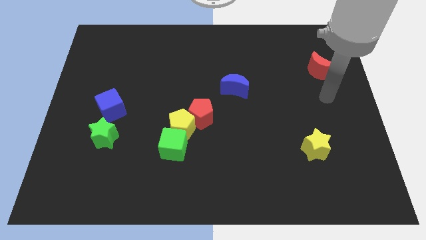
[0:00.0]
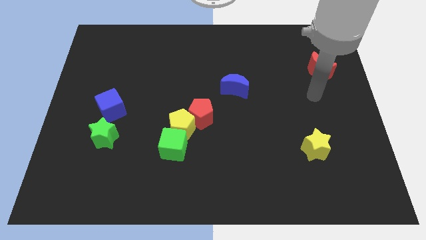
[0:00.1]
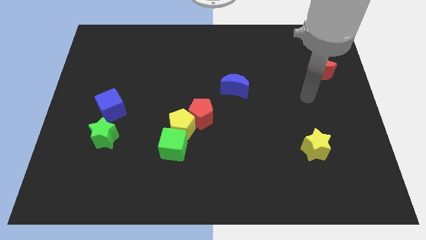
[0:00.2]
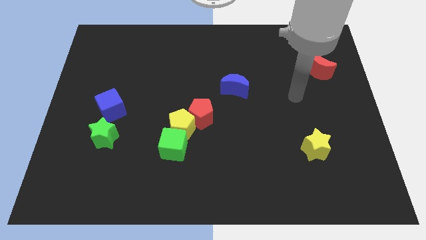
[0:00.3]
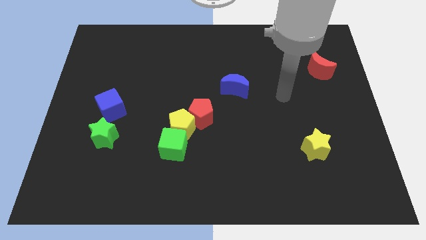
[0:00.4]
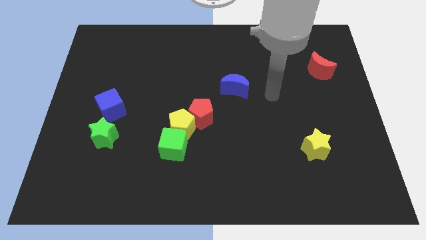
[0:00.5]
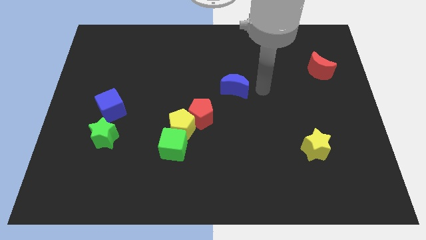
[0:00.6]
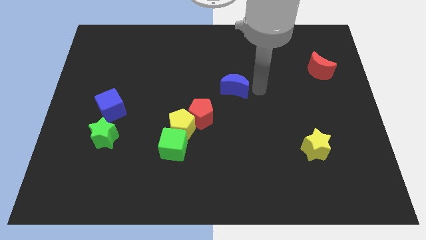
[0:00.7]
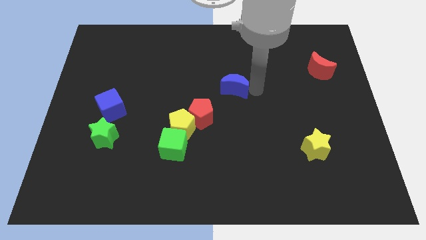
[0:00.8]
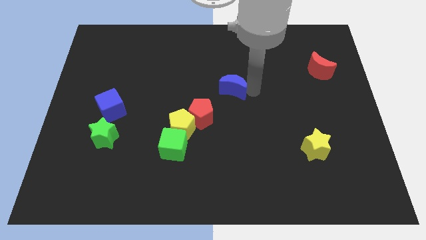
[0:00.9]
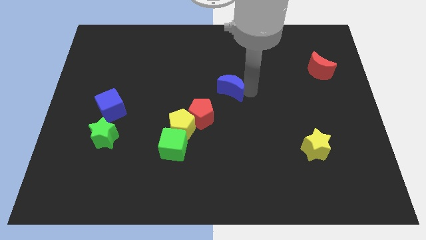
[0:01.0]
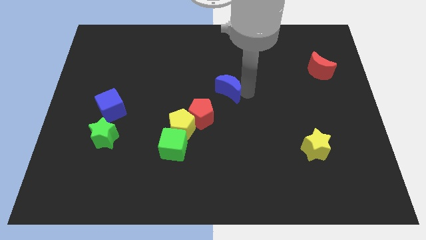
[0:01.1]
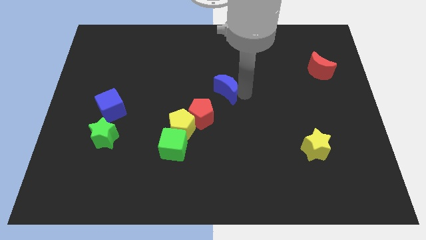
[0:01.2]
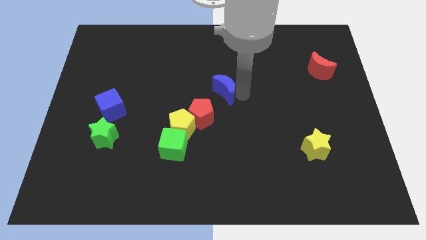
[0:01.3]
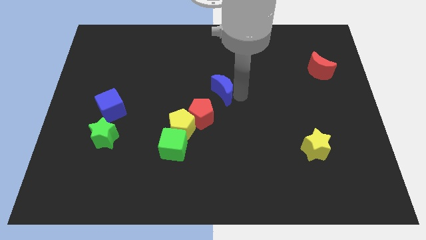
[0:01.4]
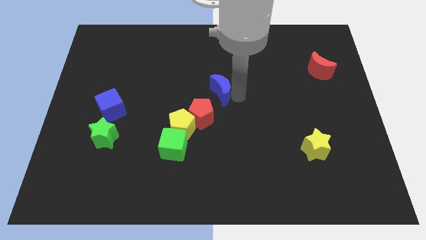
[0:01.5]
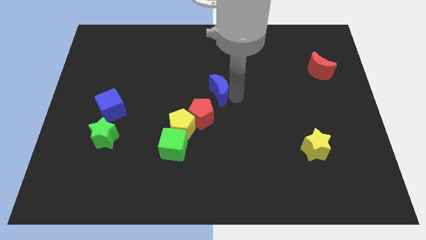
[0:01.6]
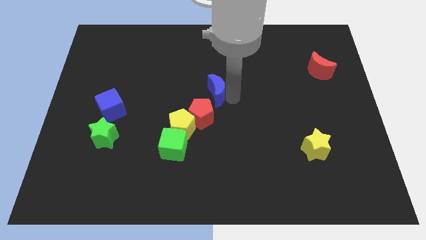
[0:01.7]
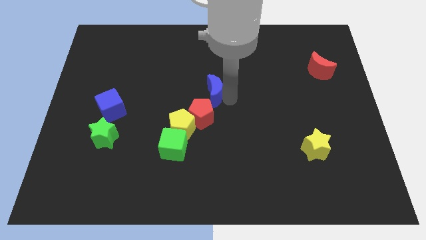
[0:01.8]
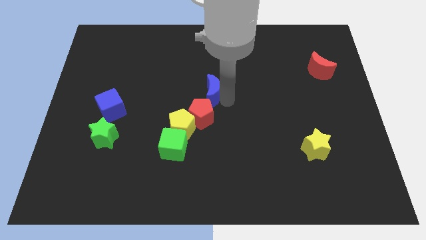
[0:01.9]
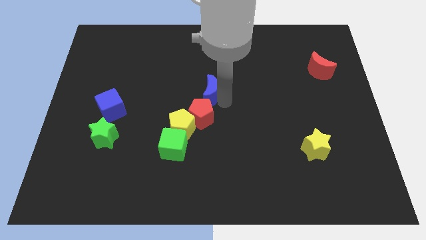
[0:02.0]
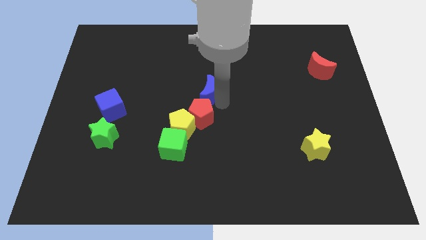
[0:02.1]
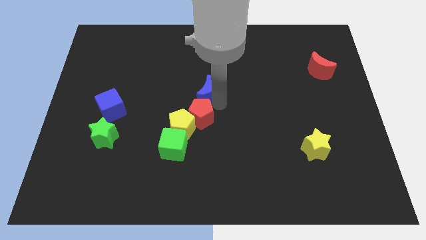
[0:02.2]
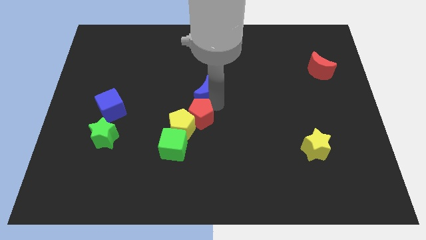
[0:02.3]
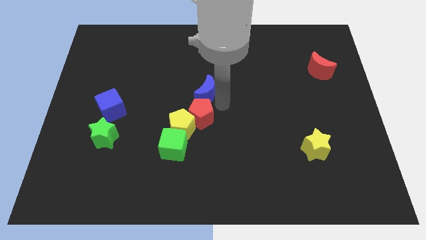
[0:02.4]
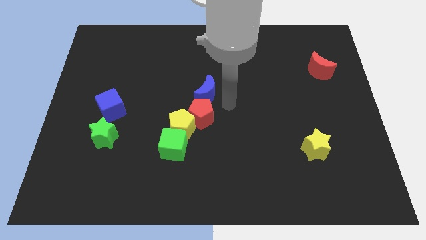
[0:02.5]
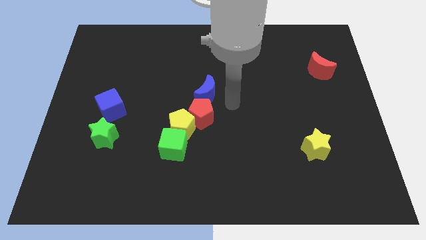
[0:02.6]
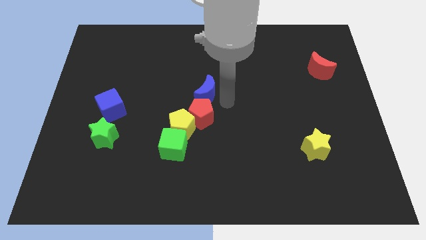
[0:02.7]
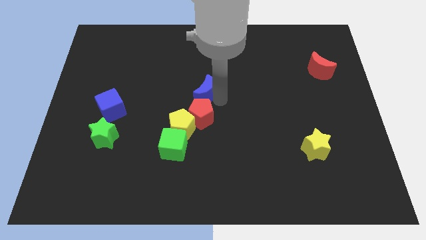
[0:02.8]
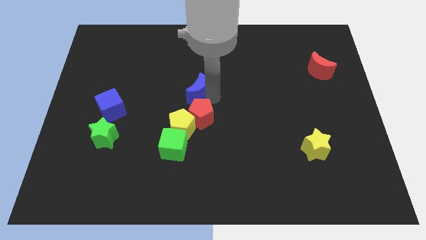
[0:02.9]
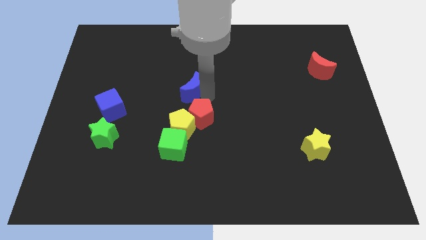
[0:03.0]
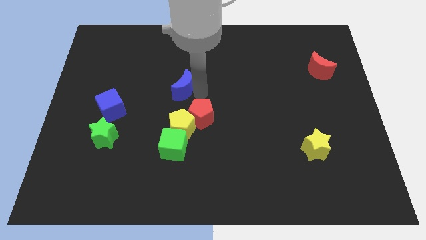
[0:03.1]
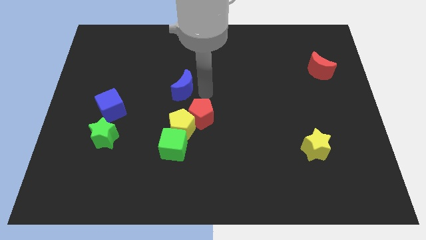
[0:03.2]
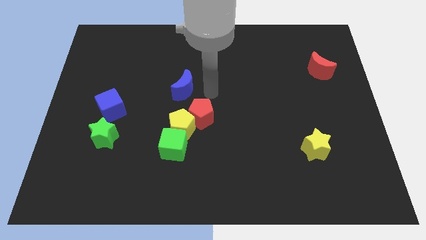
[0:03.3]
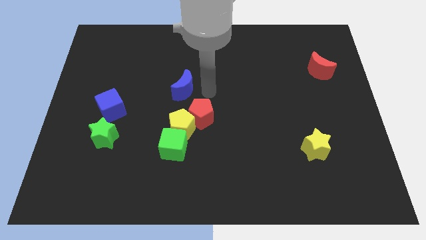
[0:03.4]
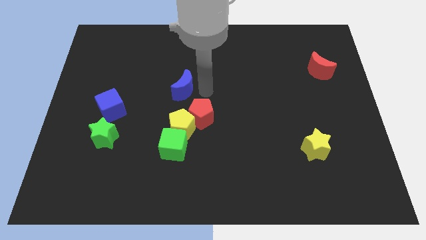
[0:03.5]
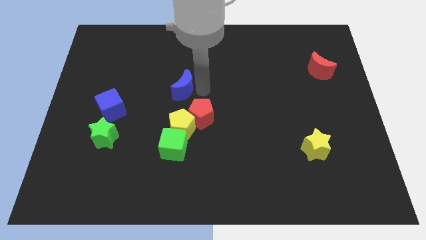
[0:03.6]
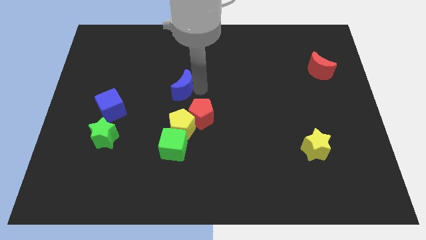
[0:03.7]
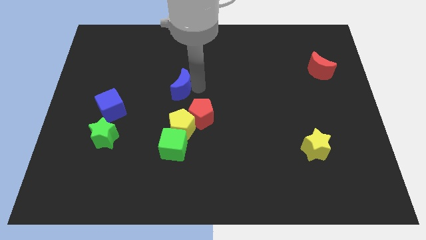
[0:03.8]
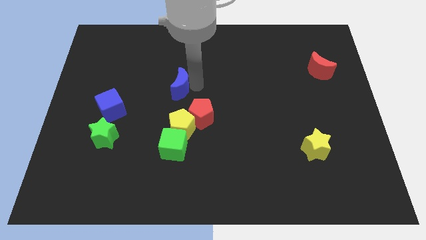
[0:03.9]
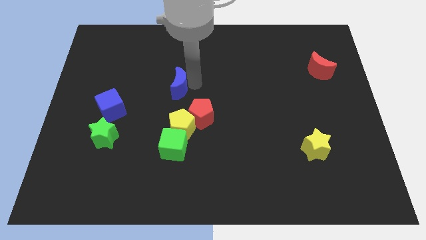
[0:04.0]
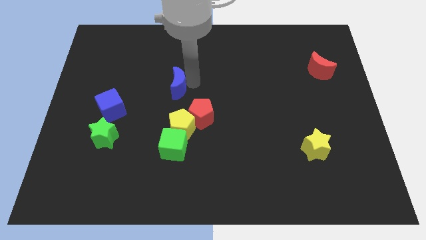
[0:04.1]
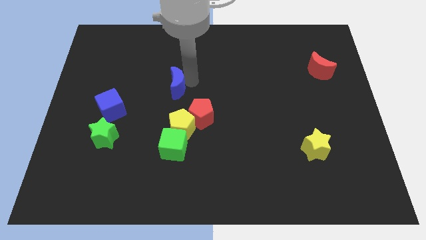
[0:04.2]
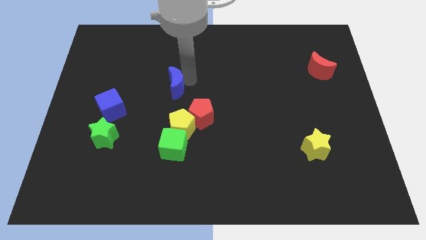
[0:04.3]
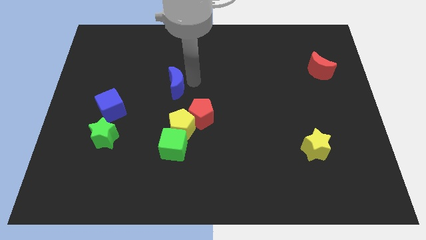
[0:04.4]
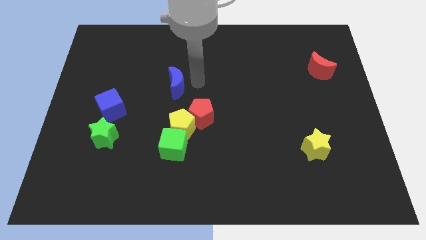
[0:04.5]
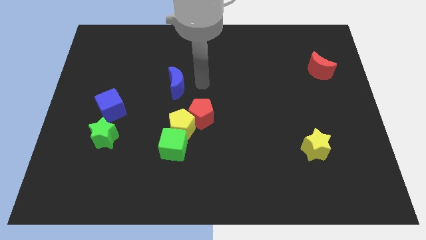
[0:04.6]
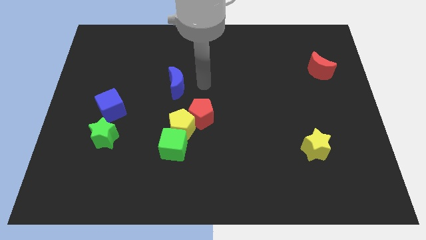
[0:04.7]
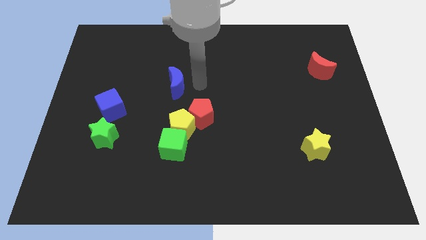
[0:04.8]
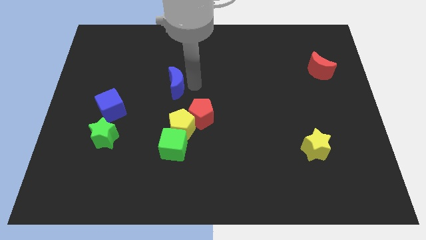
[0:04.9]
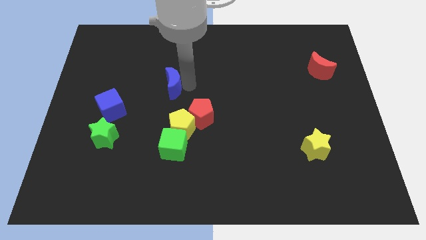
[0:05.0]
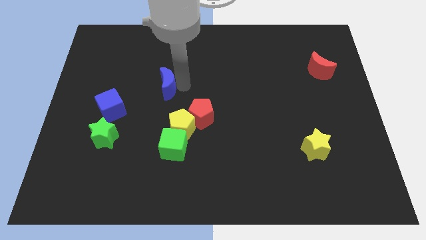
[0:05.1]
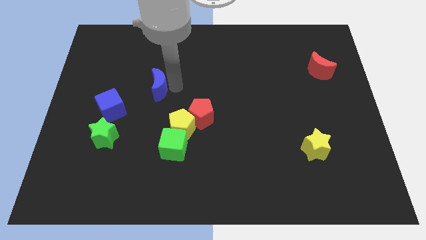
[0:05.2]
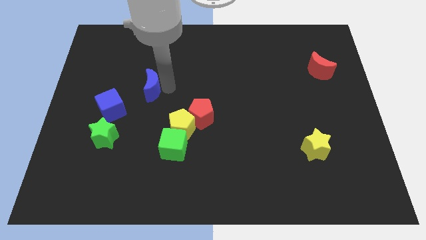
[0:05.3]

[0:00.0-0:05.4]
move the blue moon left

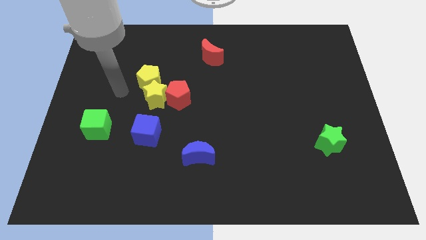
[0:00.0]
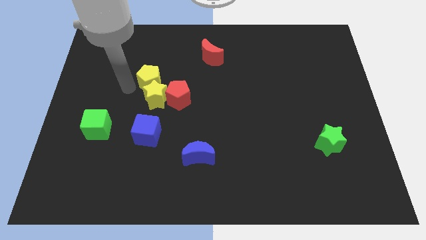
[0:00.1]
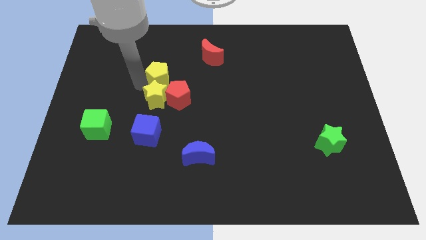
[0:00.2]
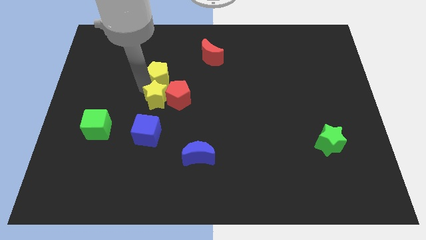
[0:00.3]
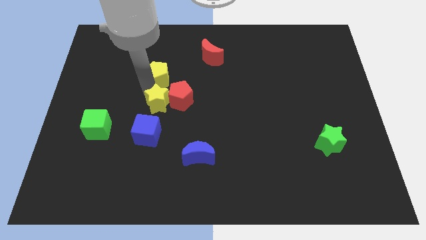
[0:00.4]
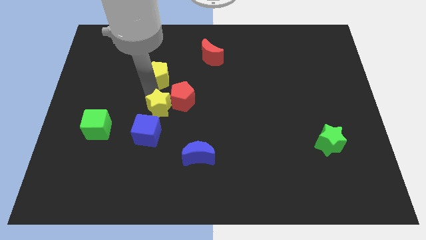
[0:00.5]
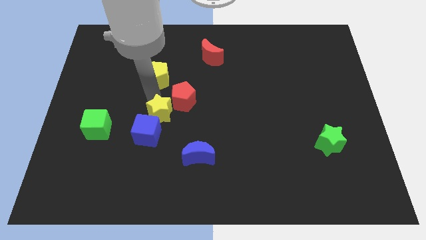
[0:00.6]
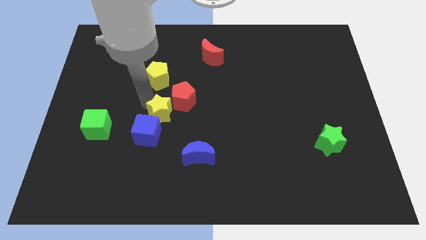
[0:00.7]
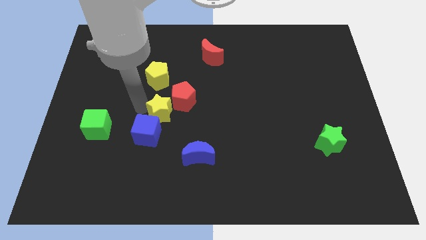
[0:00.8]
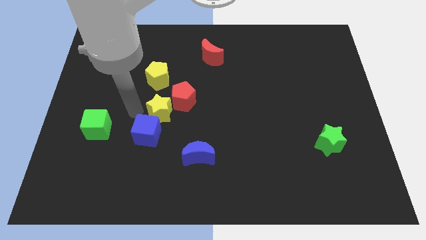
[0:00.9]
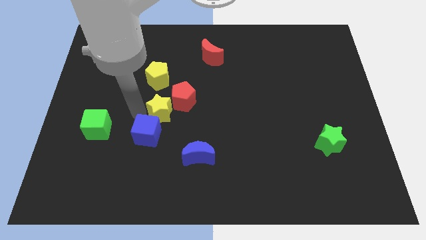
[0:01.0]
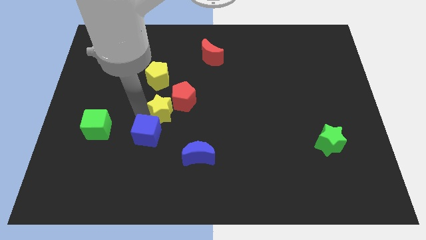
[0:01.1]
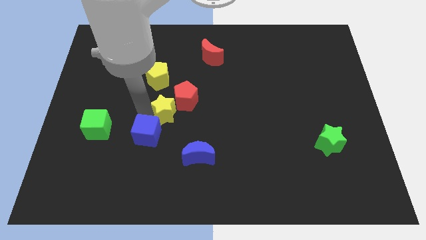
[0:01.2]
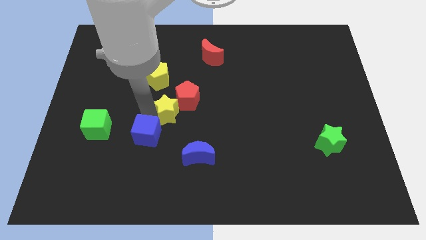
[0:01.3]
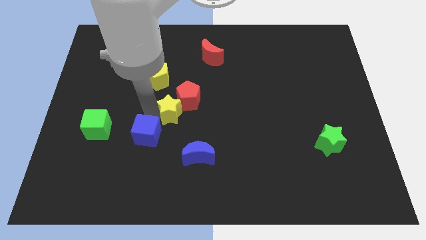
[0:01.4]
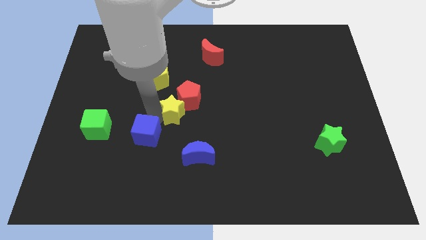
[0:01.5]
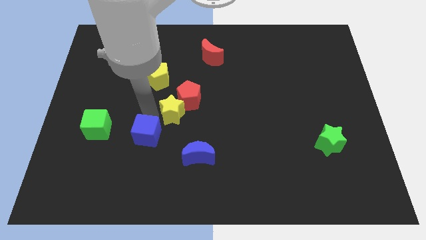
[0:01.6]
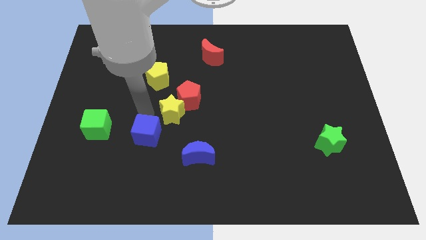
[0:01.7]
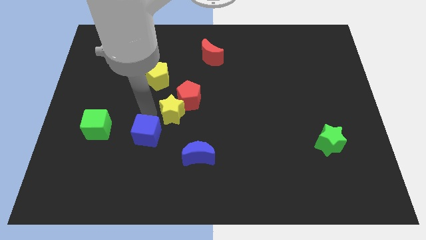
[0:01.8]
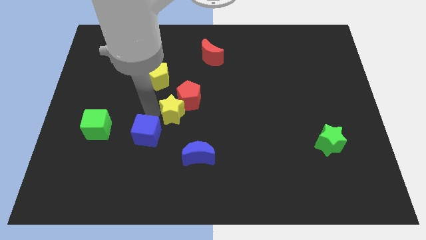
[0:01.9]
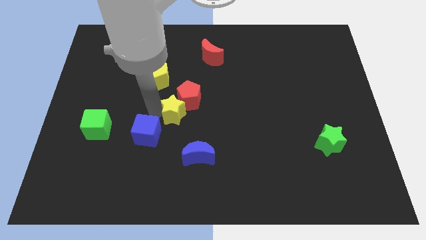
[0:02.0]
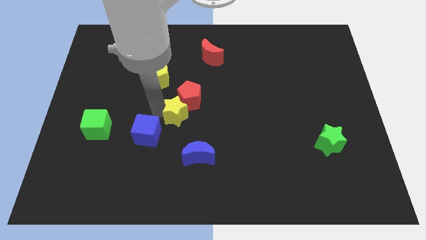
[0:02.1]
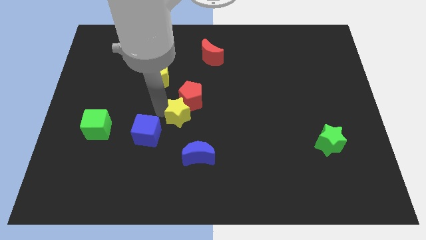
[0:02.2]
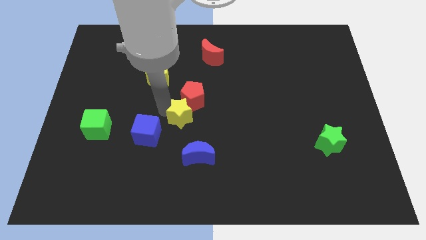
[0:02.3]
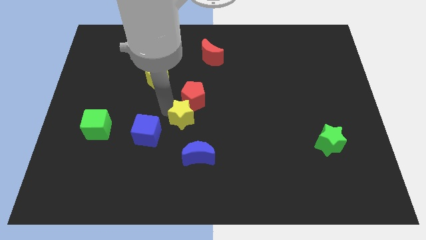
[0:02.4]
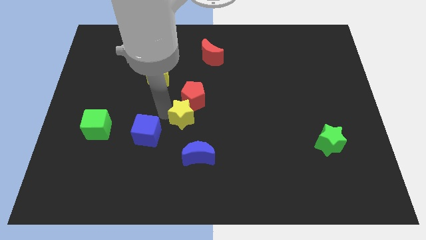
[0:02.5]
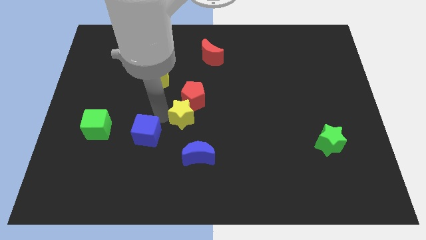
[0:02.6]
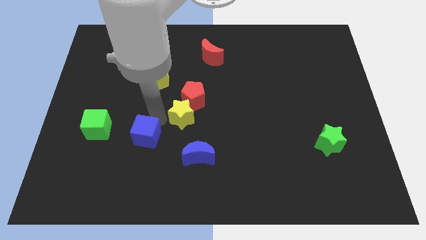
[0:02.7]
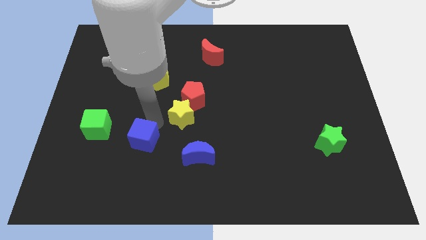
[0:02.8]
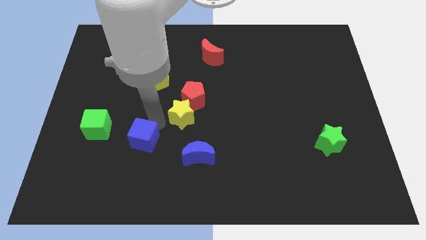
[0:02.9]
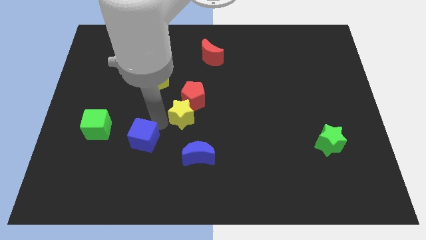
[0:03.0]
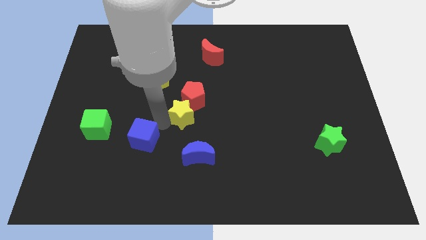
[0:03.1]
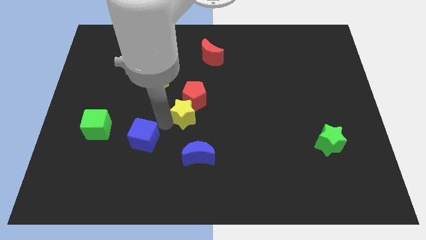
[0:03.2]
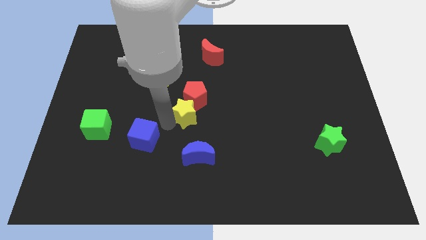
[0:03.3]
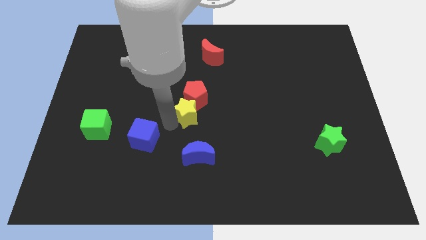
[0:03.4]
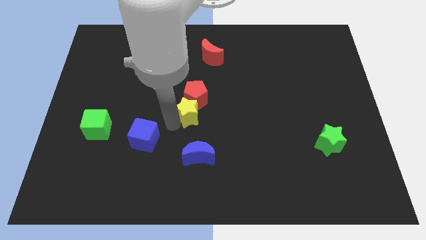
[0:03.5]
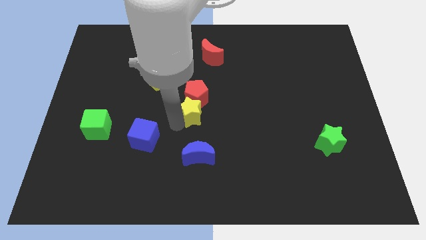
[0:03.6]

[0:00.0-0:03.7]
move the yellow star slightly right
